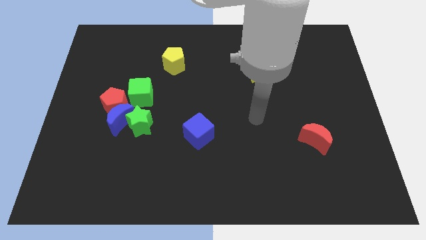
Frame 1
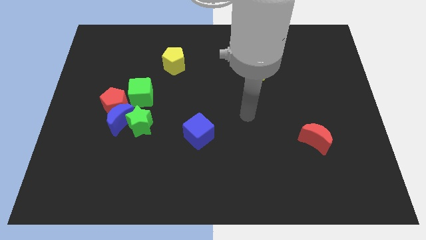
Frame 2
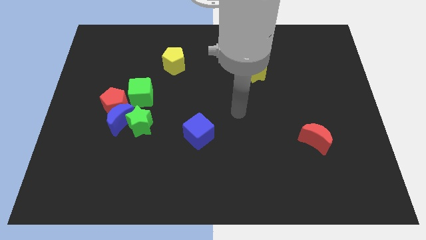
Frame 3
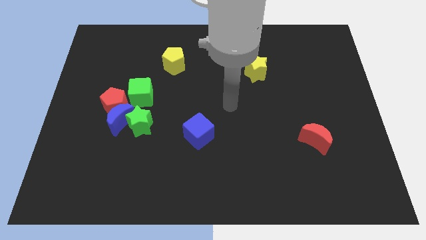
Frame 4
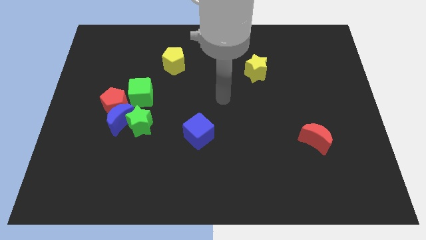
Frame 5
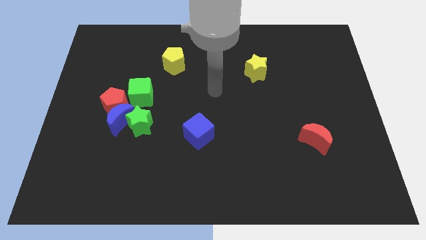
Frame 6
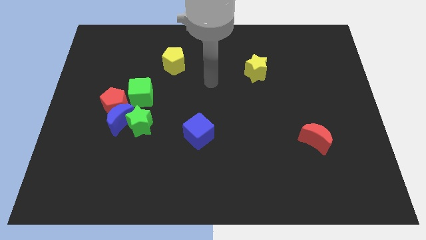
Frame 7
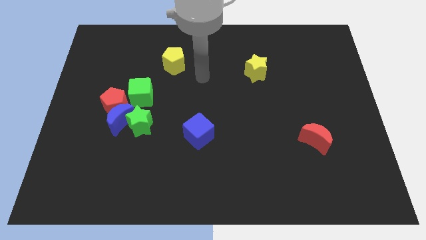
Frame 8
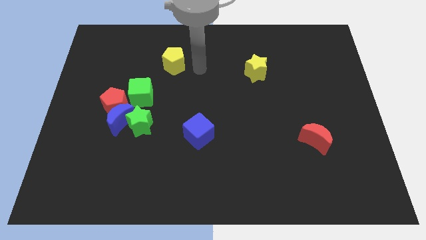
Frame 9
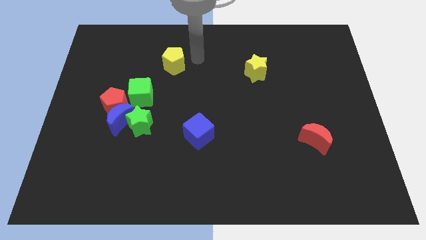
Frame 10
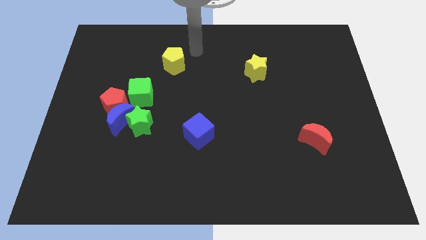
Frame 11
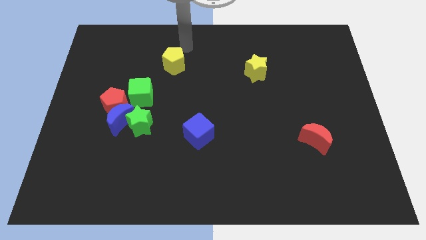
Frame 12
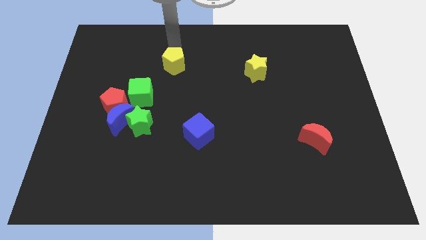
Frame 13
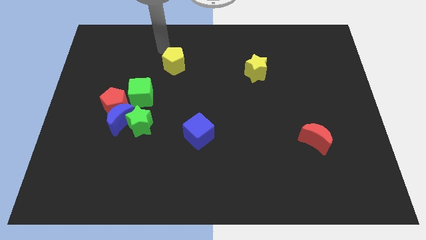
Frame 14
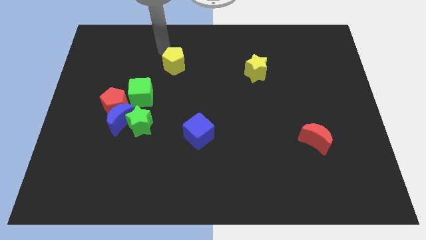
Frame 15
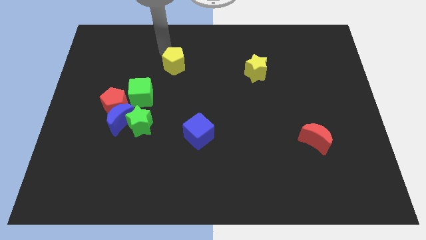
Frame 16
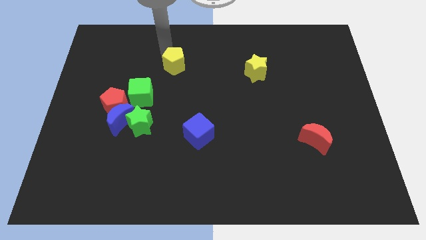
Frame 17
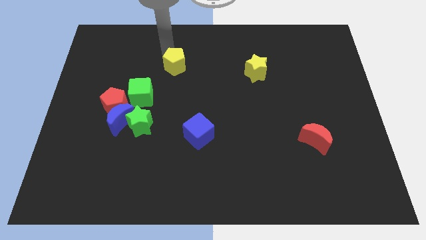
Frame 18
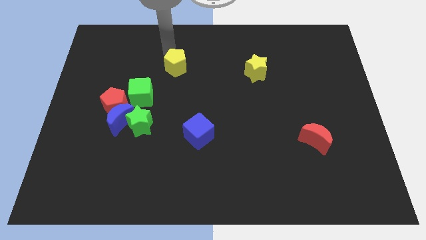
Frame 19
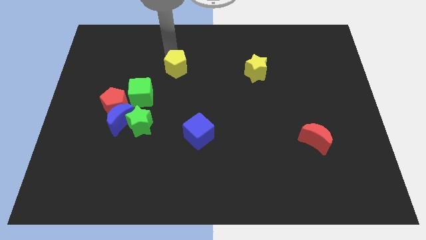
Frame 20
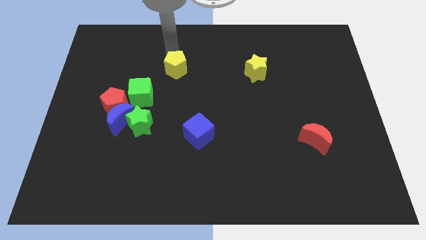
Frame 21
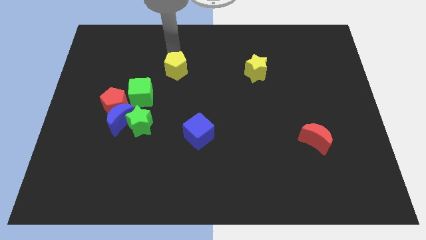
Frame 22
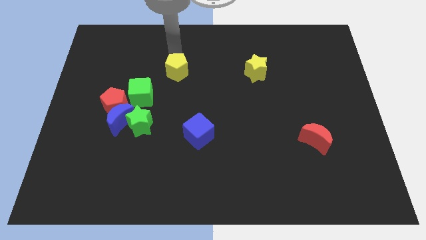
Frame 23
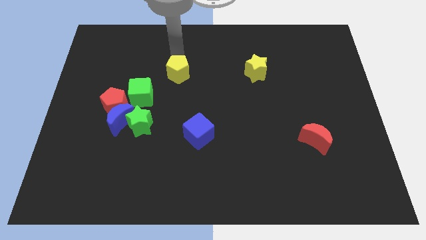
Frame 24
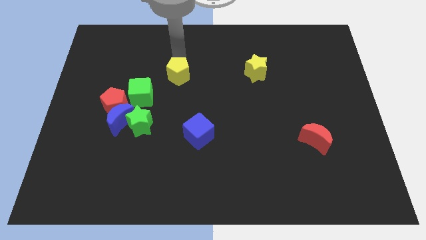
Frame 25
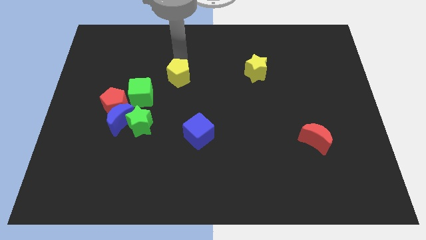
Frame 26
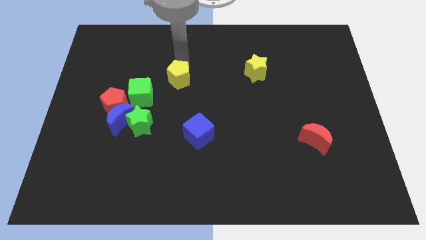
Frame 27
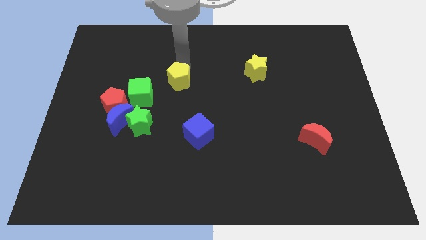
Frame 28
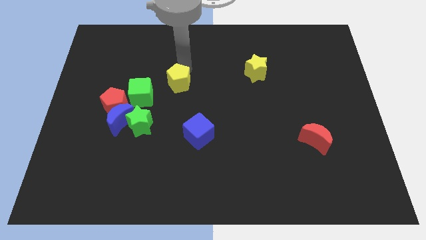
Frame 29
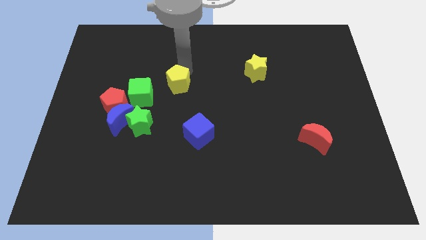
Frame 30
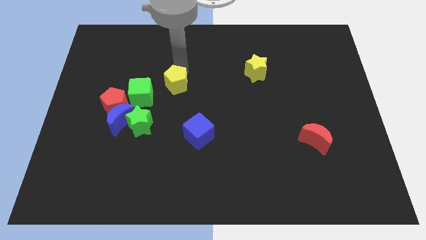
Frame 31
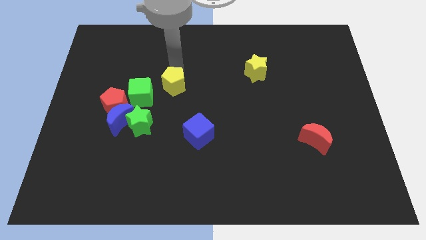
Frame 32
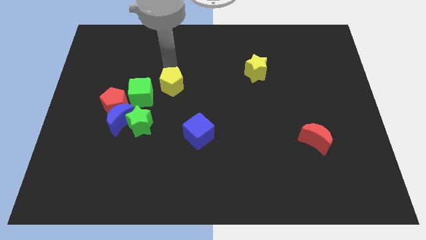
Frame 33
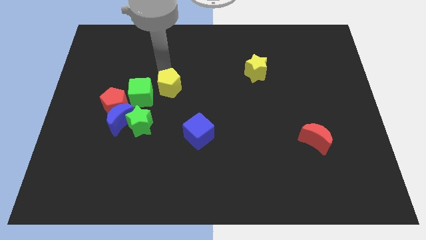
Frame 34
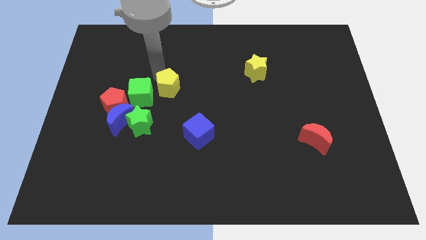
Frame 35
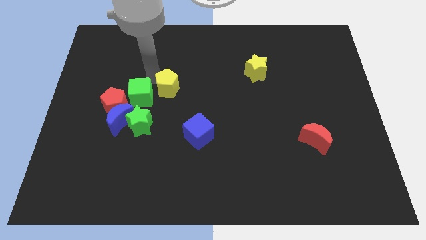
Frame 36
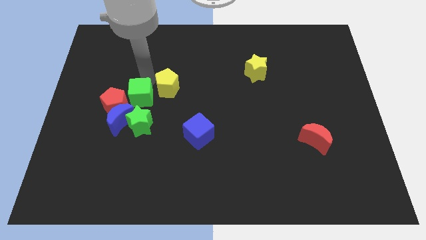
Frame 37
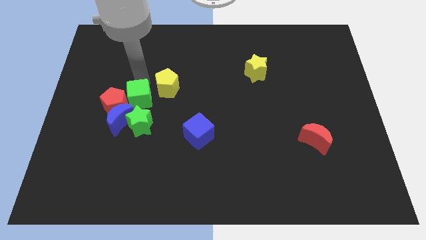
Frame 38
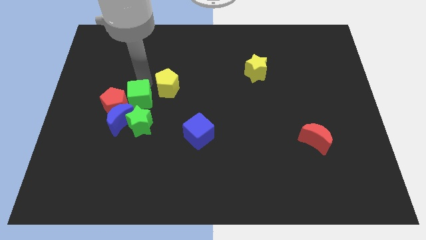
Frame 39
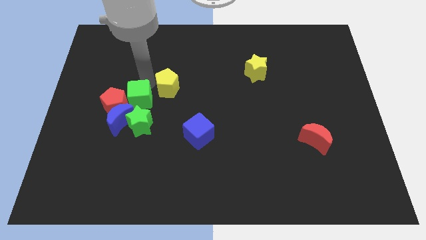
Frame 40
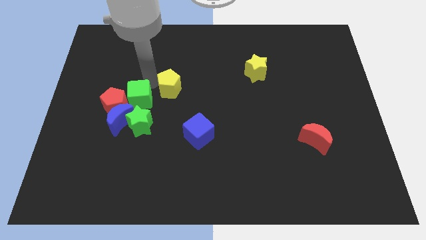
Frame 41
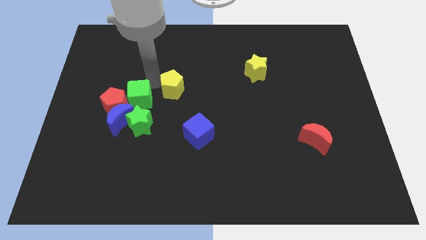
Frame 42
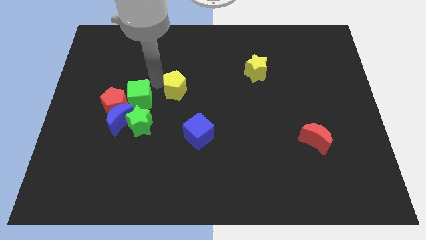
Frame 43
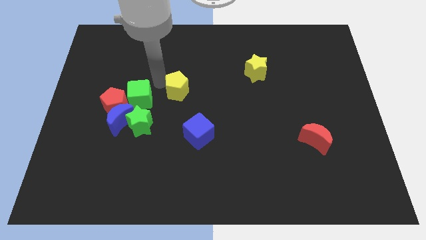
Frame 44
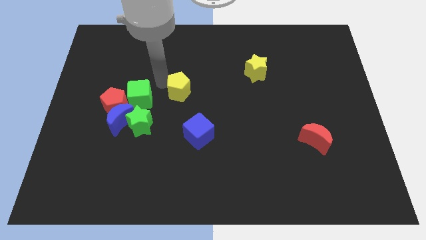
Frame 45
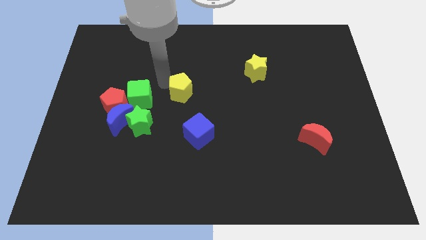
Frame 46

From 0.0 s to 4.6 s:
slightly push the yellow pentagon diagonally down and right

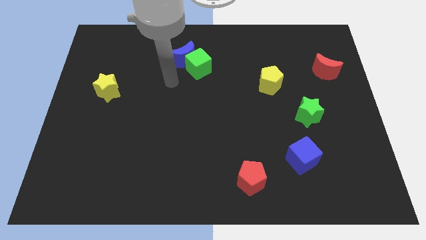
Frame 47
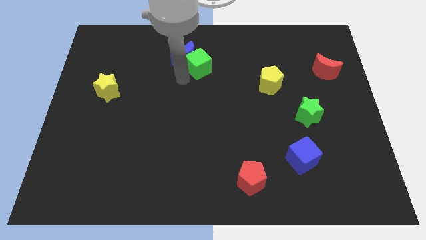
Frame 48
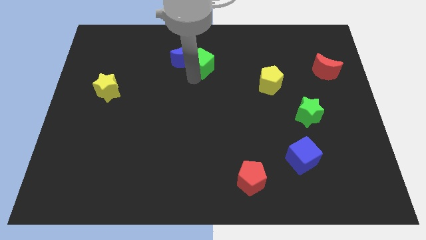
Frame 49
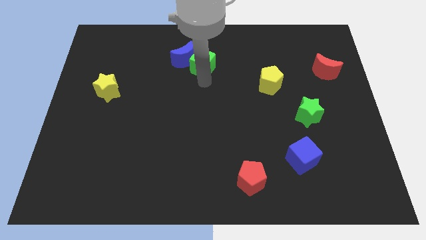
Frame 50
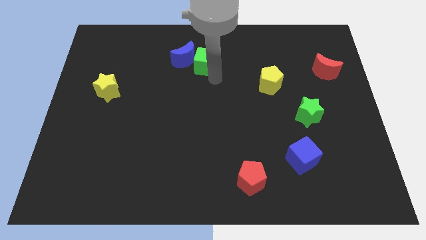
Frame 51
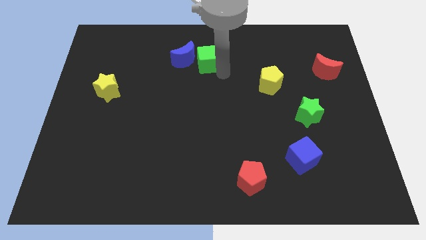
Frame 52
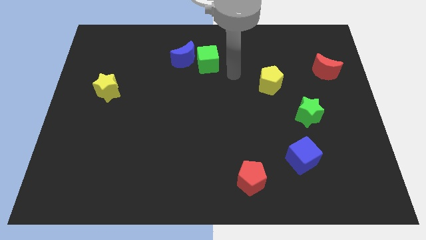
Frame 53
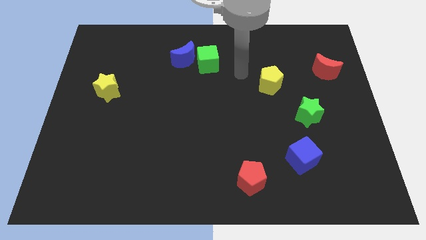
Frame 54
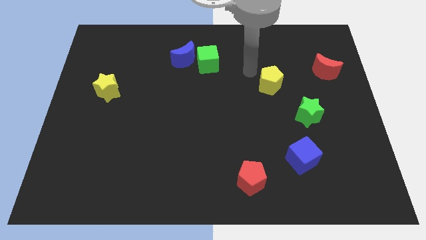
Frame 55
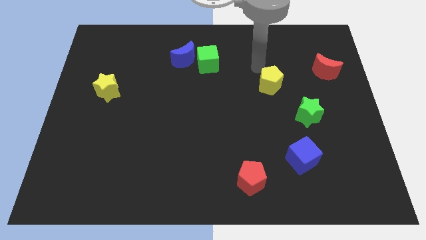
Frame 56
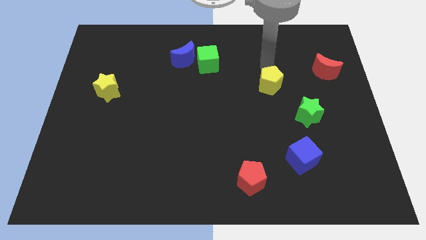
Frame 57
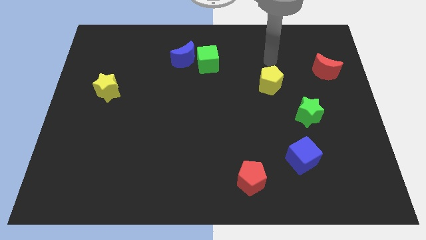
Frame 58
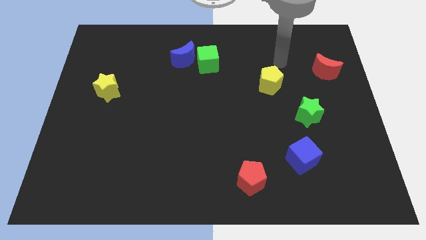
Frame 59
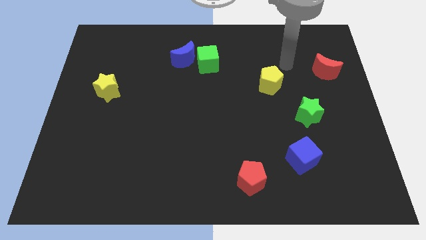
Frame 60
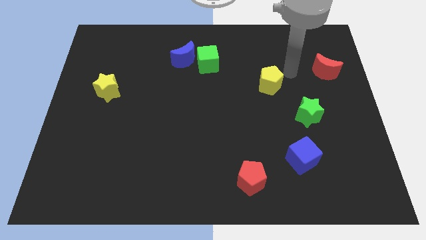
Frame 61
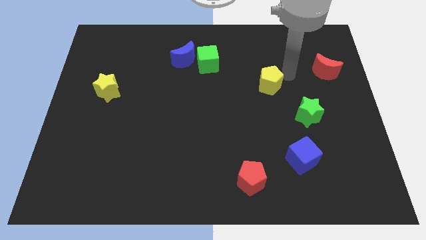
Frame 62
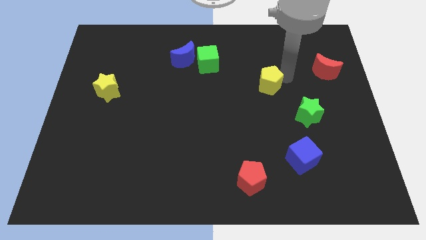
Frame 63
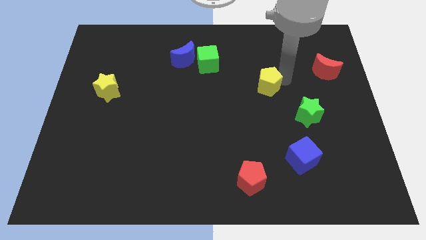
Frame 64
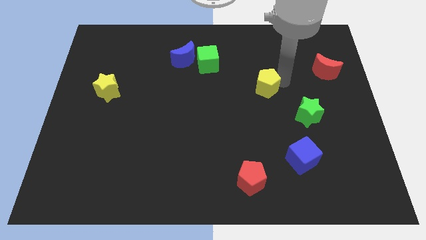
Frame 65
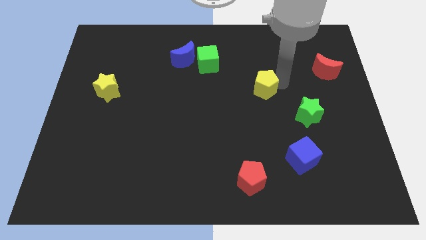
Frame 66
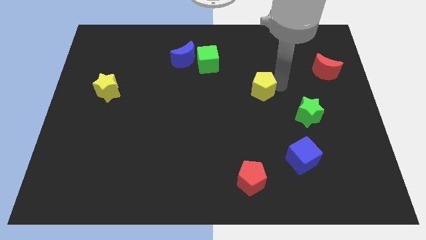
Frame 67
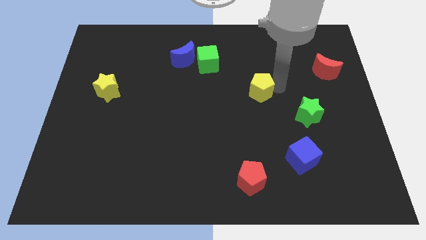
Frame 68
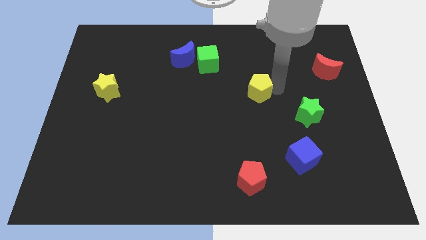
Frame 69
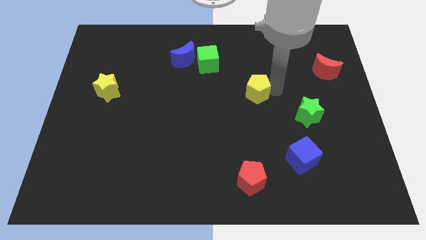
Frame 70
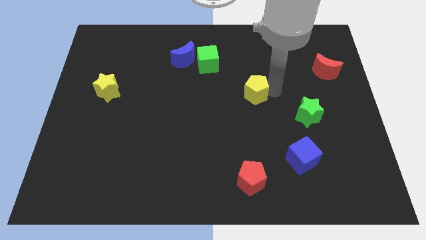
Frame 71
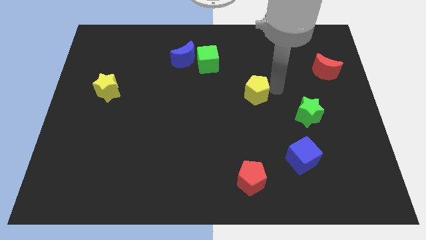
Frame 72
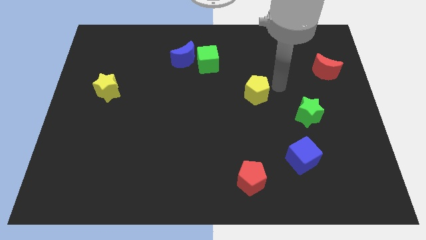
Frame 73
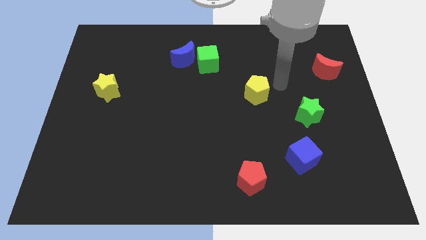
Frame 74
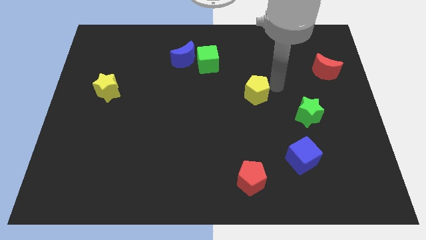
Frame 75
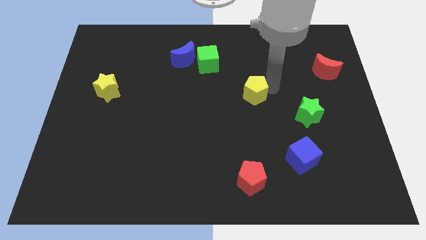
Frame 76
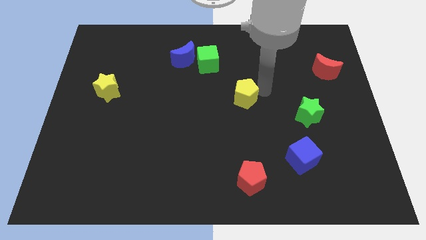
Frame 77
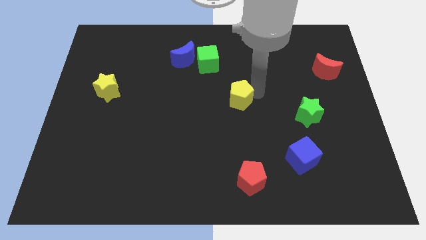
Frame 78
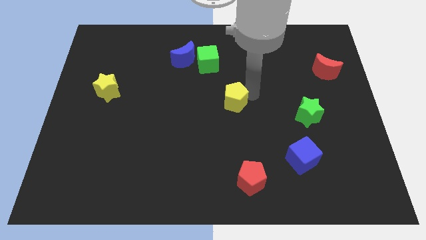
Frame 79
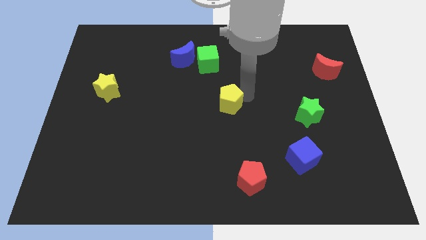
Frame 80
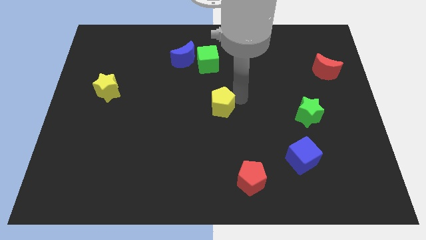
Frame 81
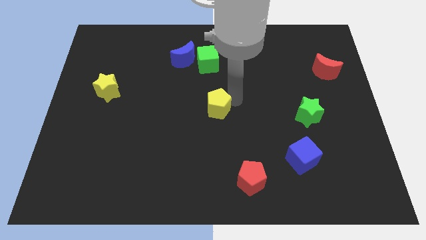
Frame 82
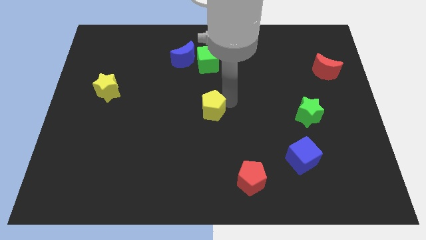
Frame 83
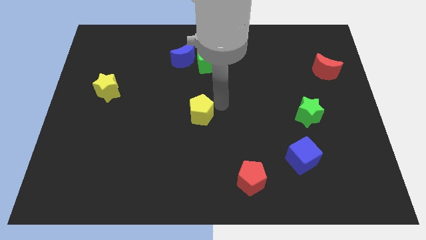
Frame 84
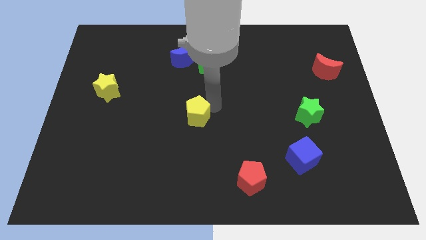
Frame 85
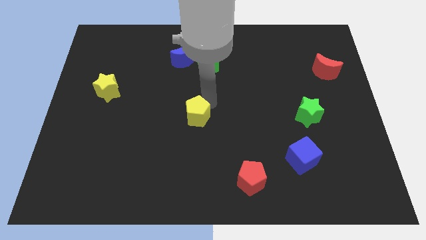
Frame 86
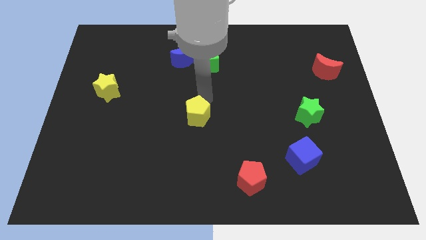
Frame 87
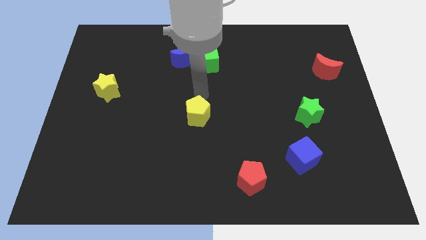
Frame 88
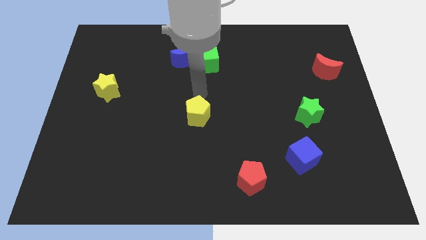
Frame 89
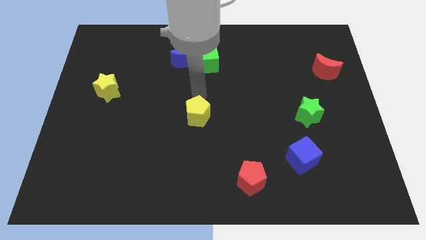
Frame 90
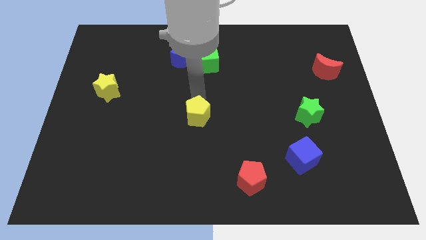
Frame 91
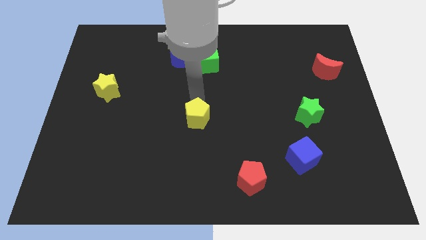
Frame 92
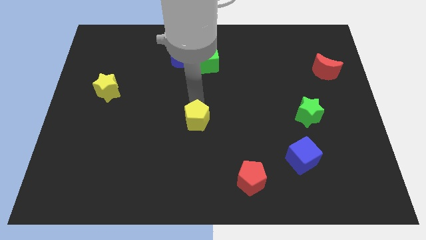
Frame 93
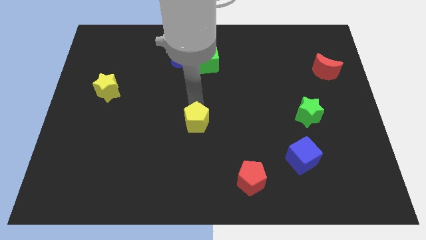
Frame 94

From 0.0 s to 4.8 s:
push the yellow pentagon downwards and to the left
